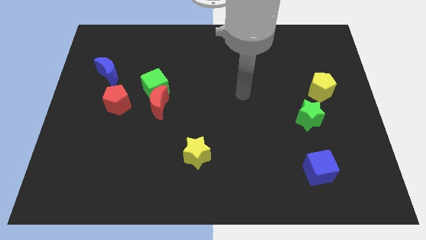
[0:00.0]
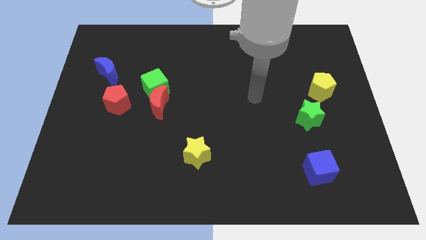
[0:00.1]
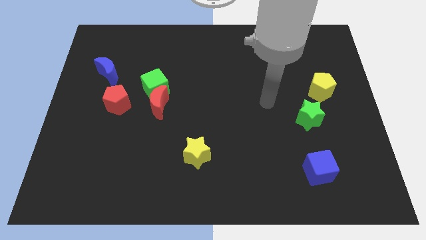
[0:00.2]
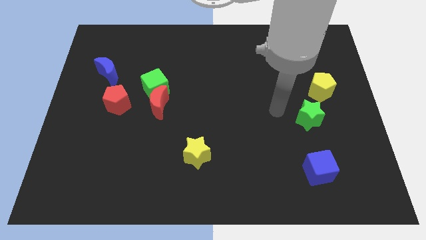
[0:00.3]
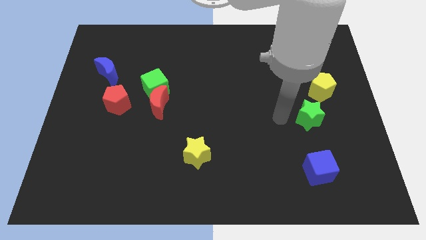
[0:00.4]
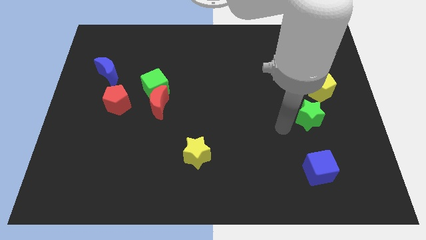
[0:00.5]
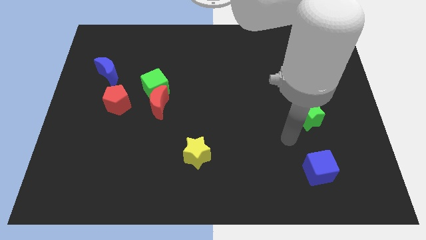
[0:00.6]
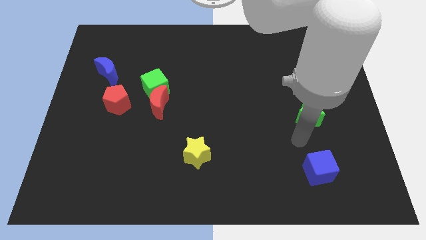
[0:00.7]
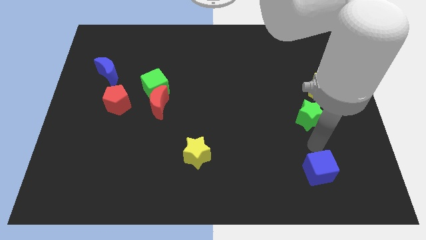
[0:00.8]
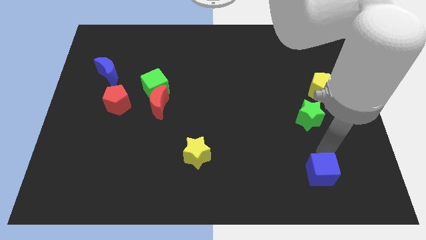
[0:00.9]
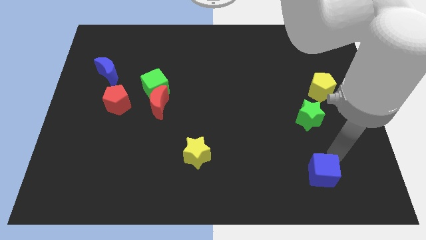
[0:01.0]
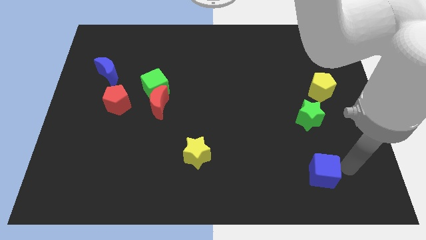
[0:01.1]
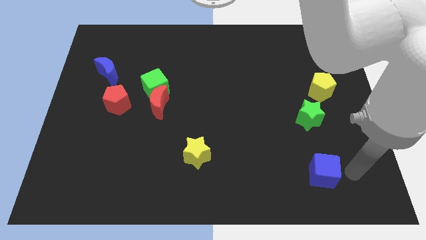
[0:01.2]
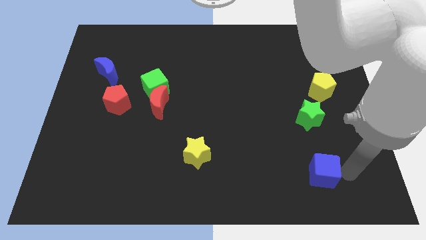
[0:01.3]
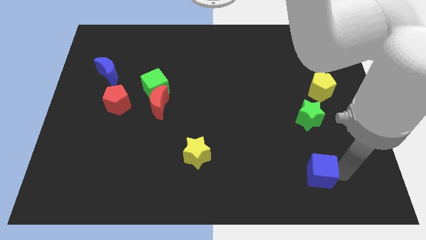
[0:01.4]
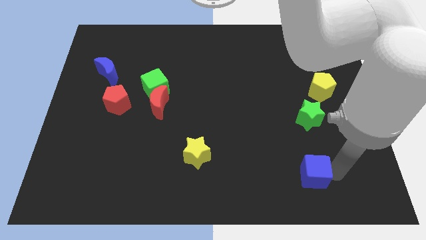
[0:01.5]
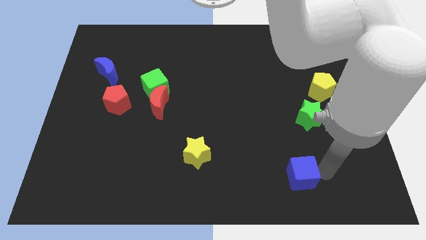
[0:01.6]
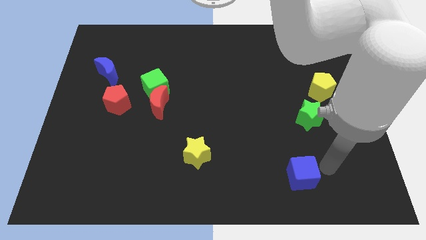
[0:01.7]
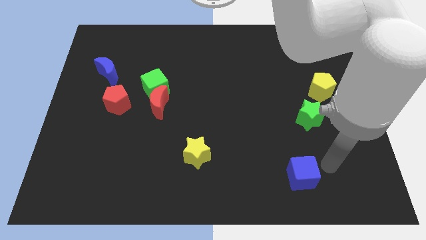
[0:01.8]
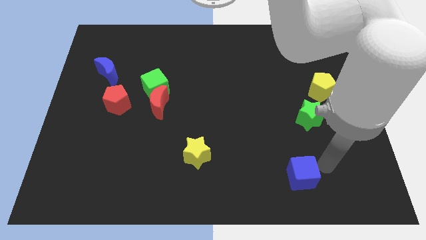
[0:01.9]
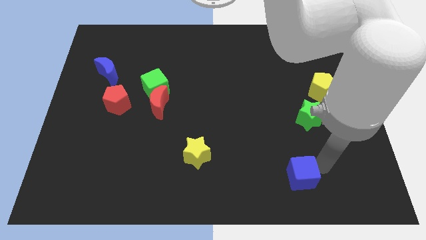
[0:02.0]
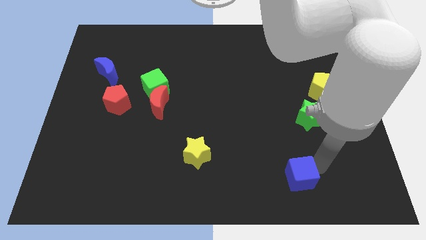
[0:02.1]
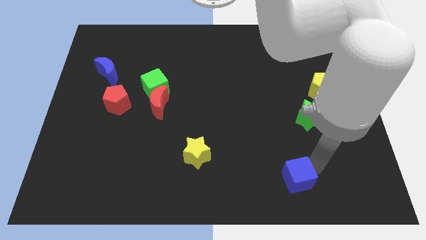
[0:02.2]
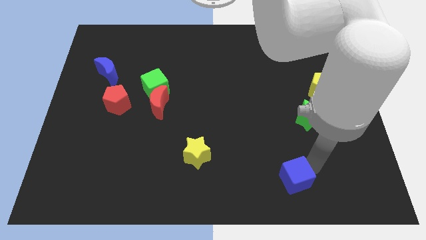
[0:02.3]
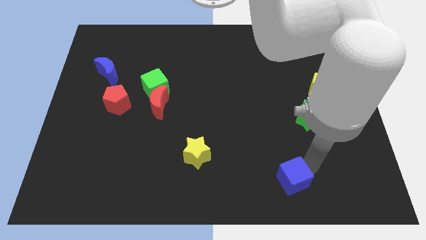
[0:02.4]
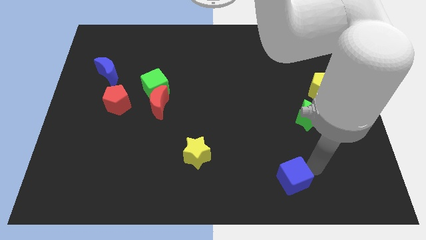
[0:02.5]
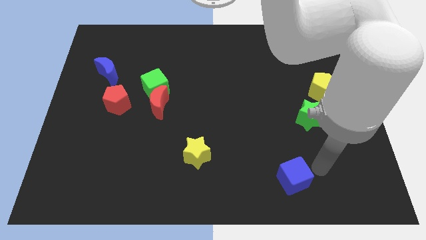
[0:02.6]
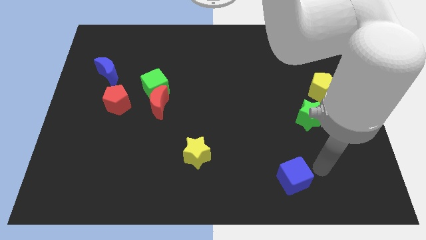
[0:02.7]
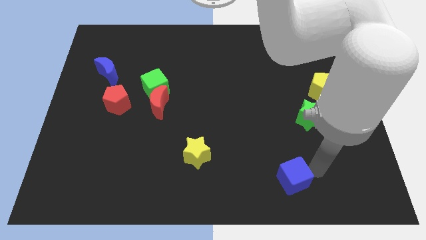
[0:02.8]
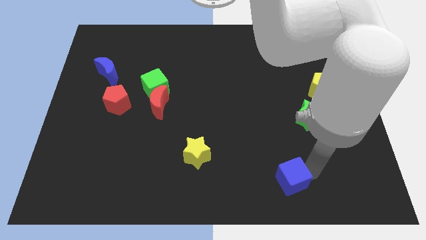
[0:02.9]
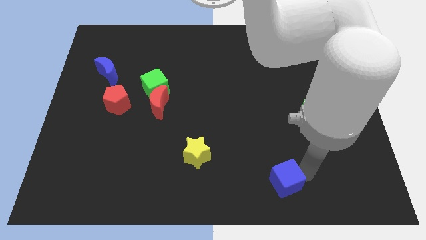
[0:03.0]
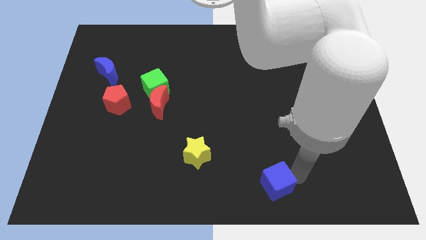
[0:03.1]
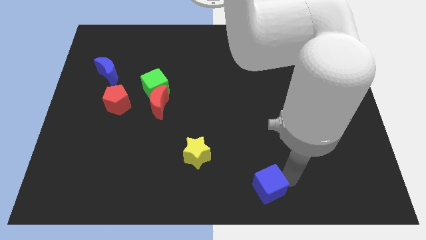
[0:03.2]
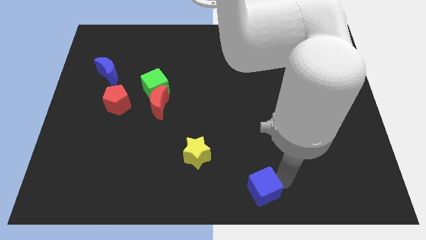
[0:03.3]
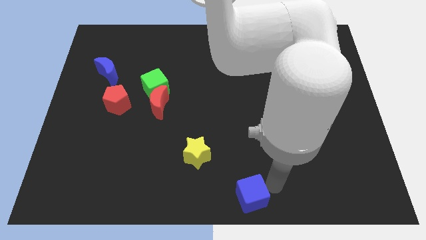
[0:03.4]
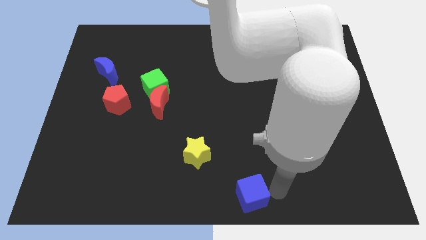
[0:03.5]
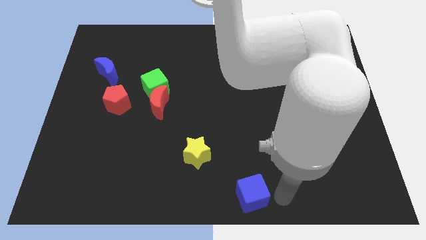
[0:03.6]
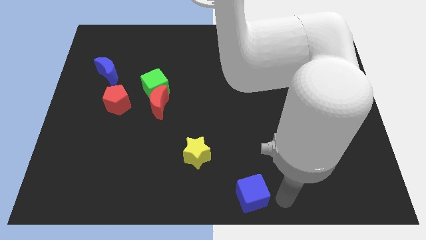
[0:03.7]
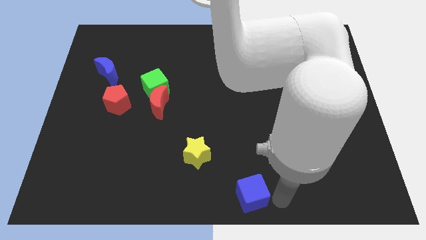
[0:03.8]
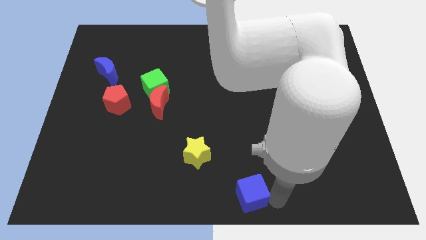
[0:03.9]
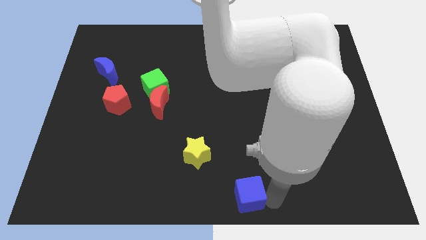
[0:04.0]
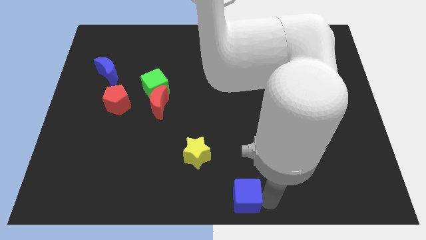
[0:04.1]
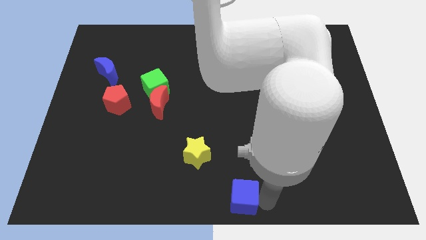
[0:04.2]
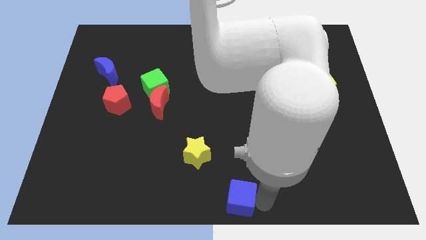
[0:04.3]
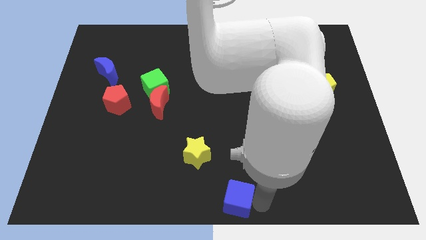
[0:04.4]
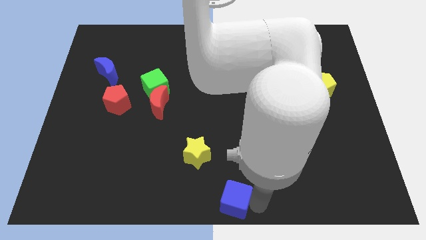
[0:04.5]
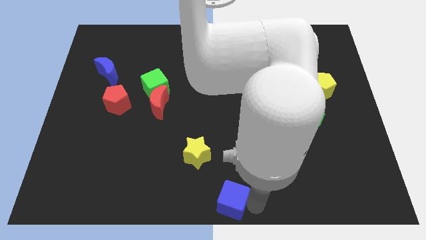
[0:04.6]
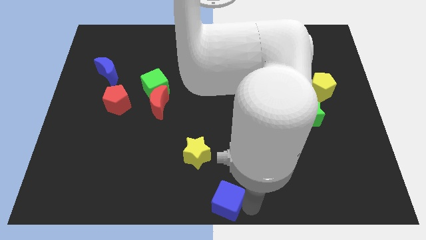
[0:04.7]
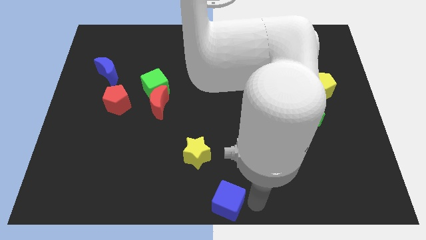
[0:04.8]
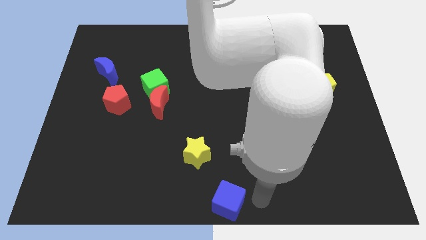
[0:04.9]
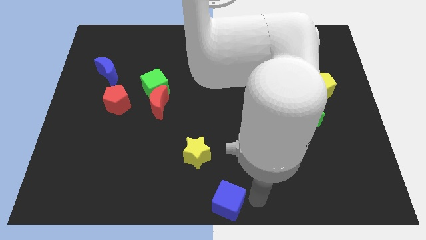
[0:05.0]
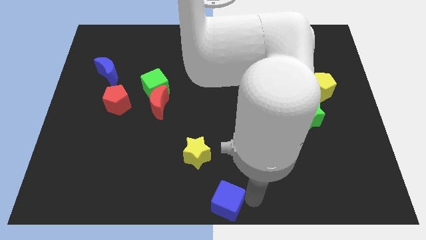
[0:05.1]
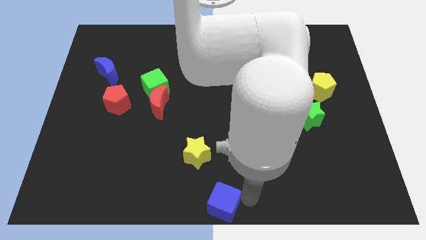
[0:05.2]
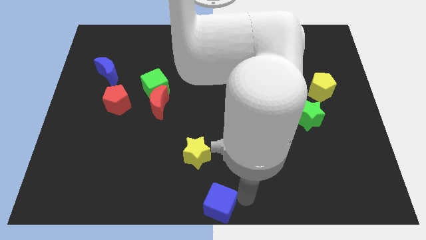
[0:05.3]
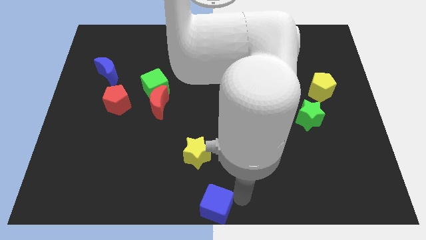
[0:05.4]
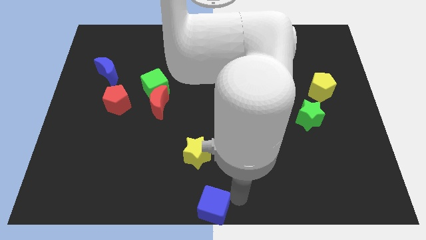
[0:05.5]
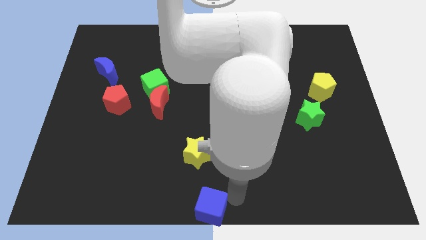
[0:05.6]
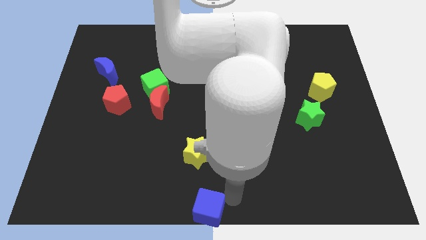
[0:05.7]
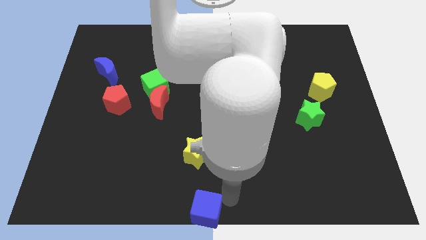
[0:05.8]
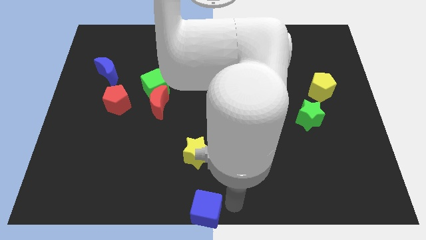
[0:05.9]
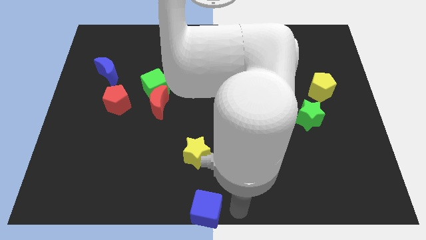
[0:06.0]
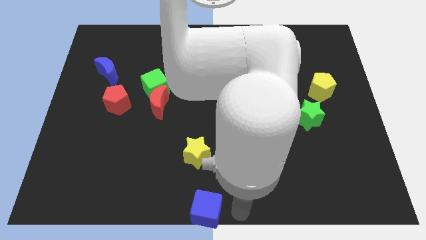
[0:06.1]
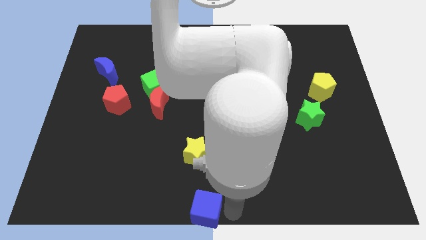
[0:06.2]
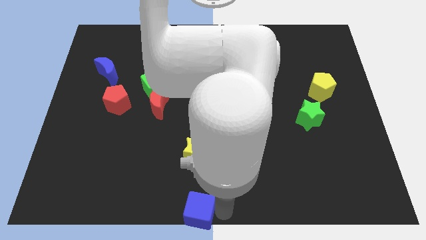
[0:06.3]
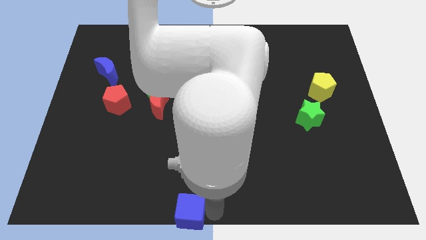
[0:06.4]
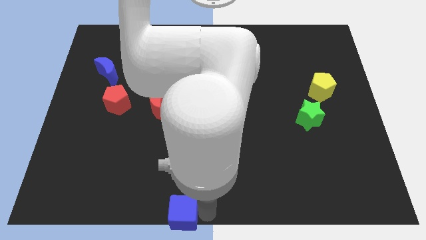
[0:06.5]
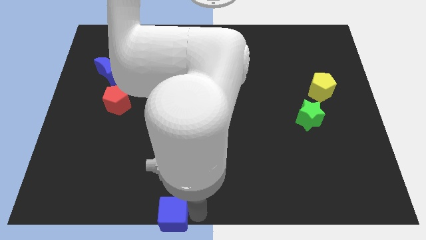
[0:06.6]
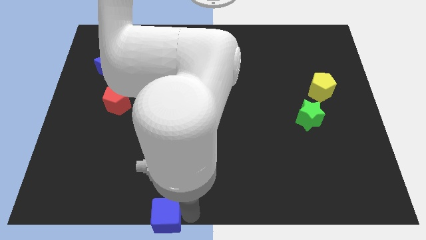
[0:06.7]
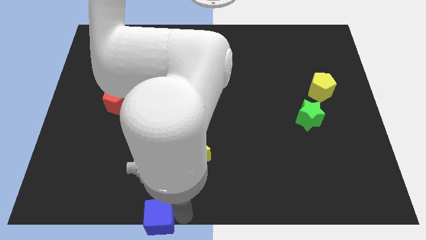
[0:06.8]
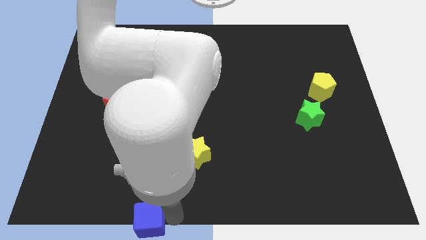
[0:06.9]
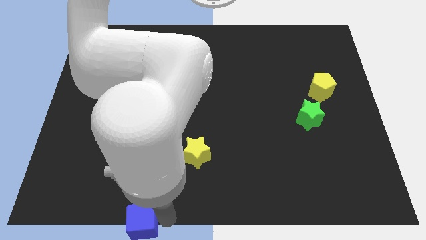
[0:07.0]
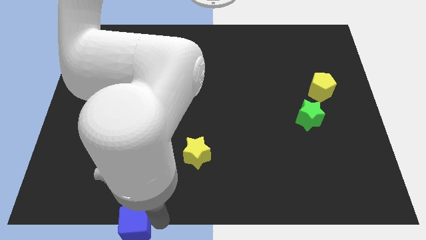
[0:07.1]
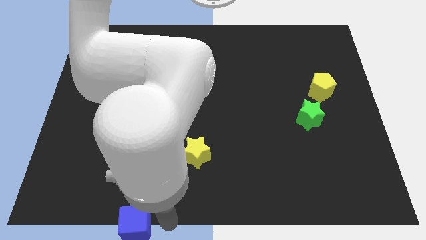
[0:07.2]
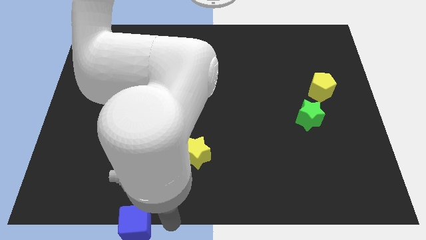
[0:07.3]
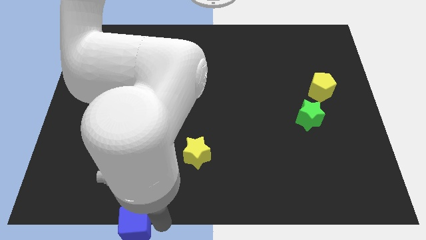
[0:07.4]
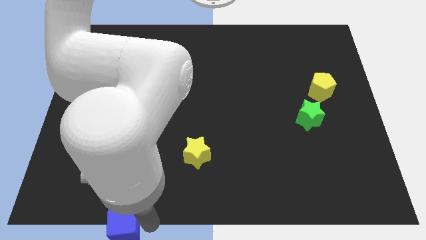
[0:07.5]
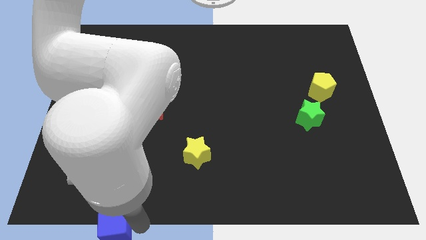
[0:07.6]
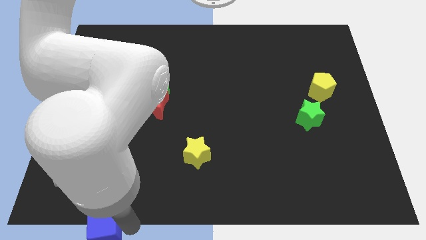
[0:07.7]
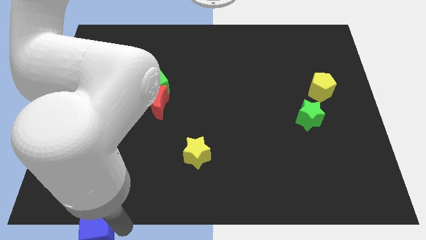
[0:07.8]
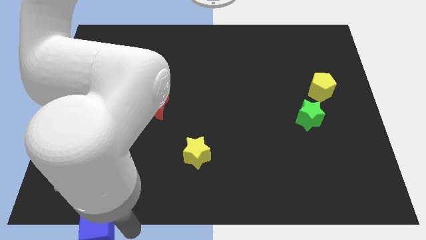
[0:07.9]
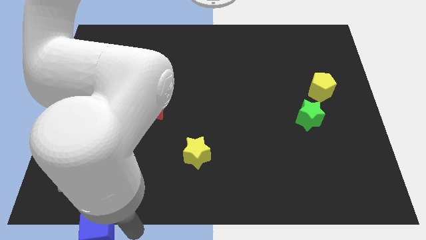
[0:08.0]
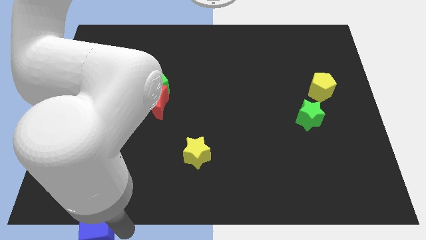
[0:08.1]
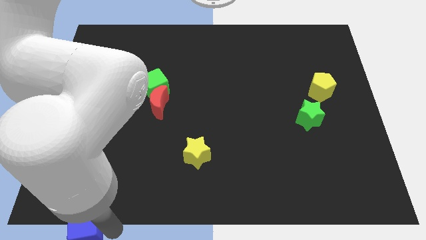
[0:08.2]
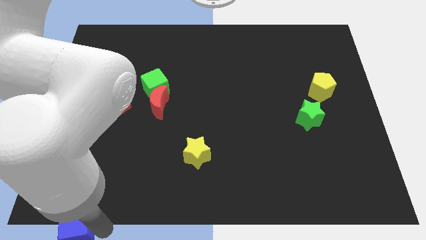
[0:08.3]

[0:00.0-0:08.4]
move the blue cube to the lower left corner
